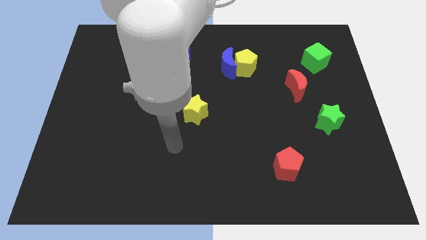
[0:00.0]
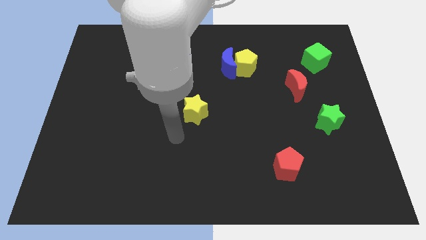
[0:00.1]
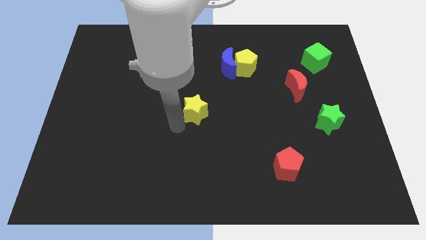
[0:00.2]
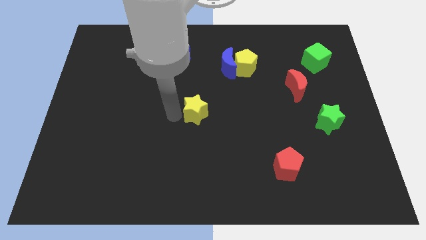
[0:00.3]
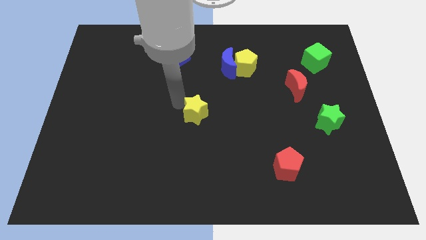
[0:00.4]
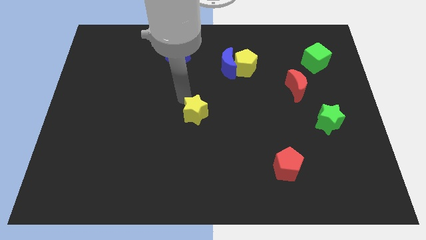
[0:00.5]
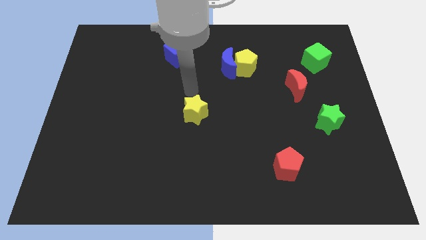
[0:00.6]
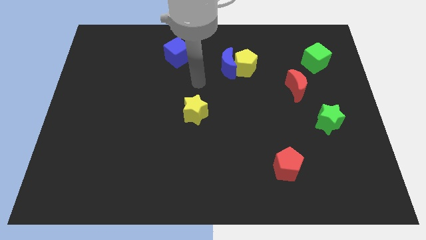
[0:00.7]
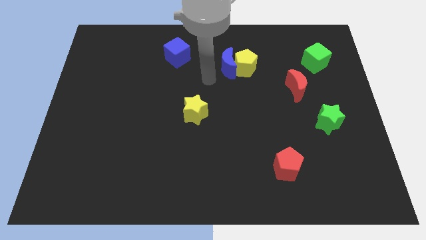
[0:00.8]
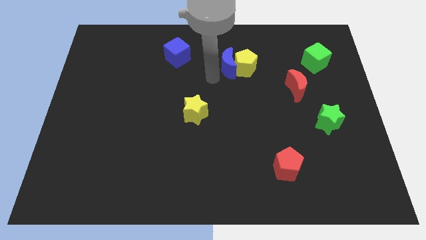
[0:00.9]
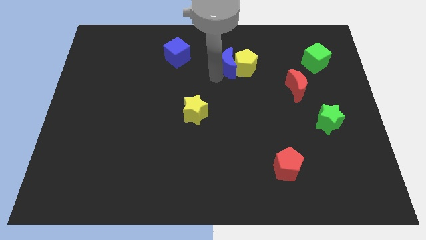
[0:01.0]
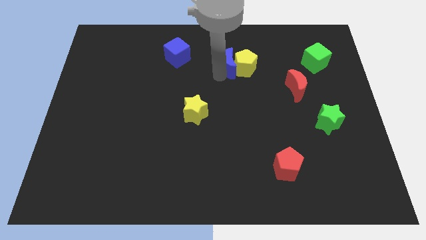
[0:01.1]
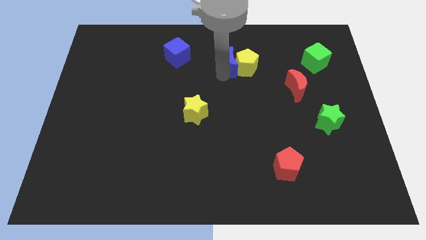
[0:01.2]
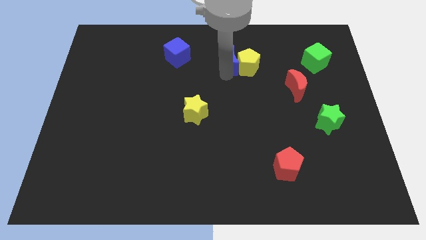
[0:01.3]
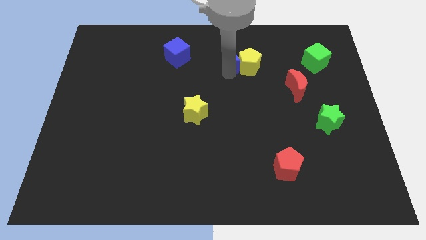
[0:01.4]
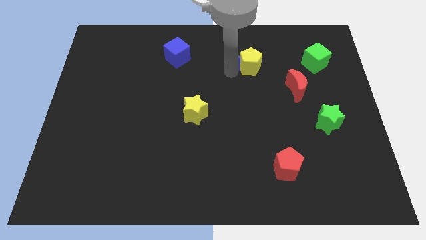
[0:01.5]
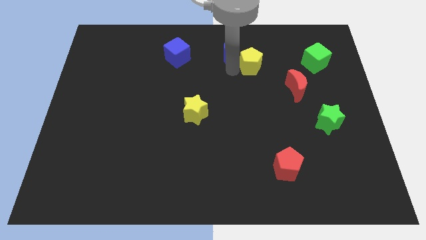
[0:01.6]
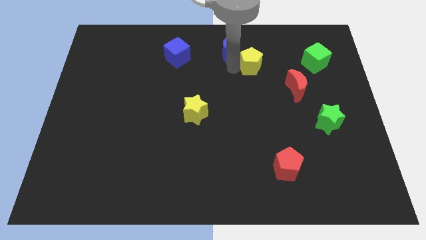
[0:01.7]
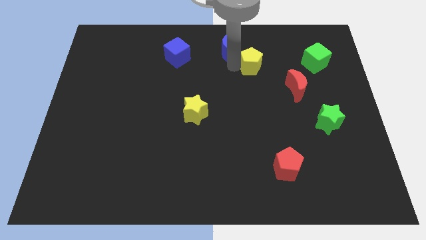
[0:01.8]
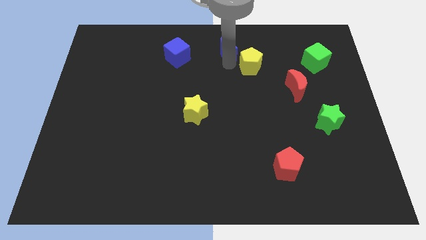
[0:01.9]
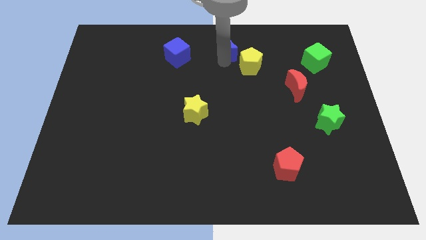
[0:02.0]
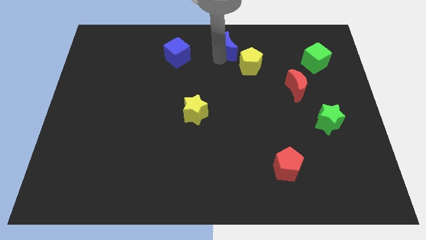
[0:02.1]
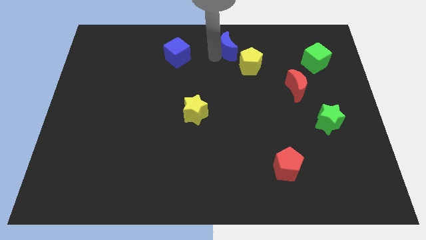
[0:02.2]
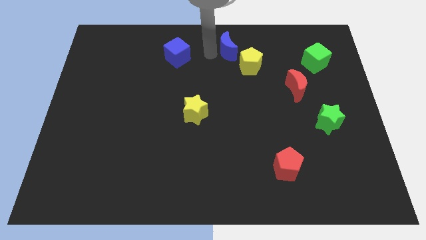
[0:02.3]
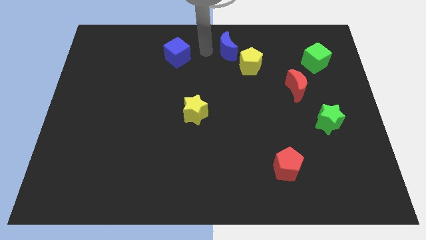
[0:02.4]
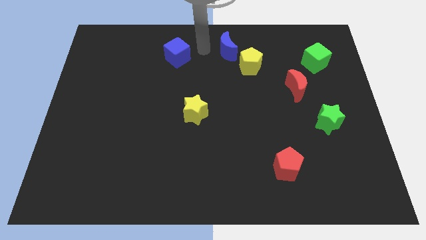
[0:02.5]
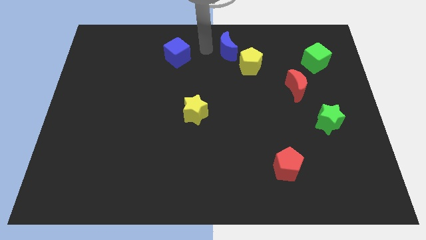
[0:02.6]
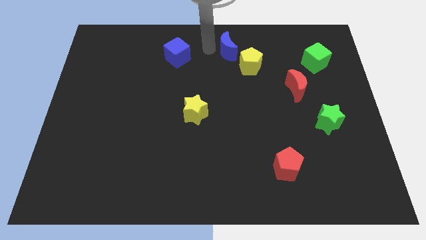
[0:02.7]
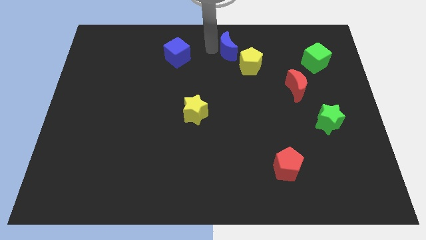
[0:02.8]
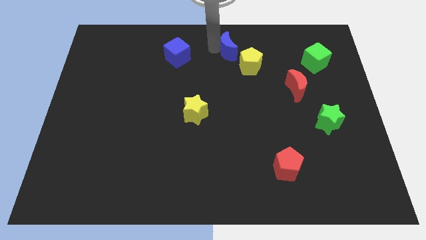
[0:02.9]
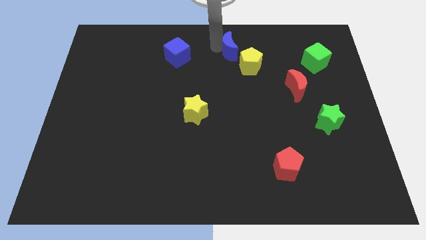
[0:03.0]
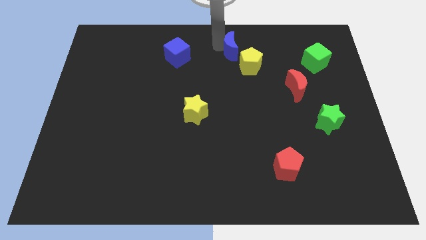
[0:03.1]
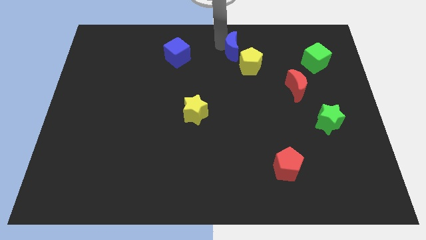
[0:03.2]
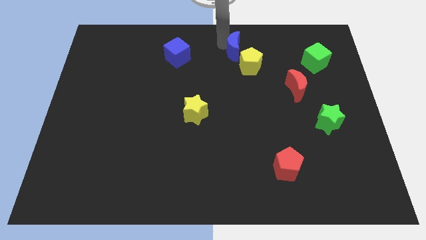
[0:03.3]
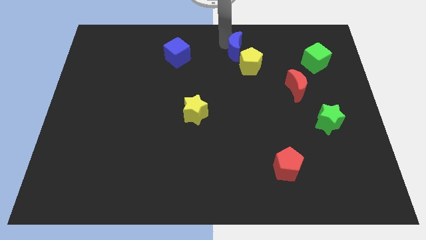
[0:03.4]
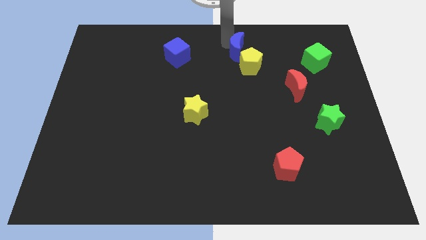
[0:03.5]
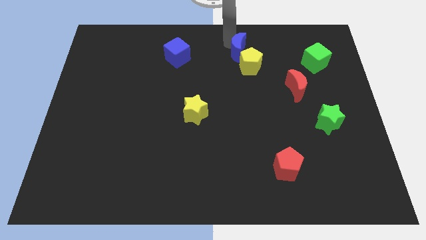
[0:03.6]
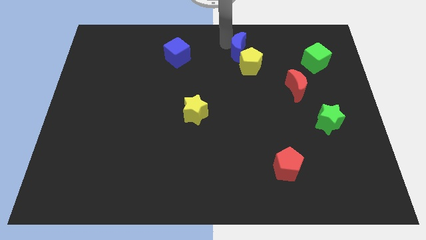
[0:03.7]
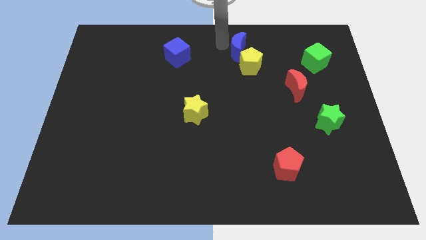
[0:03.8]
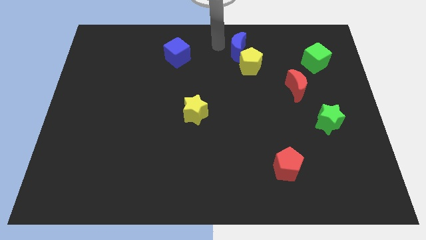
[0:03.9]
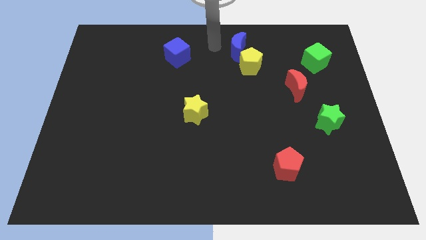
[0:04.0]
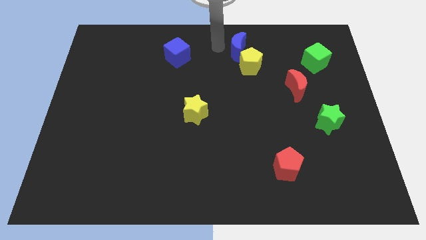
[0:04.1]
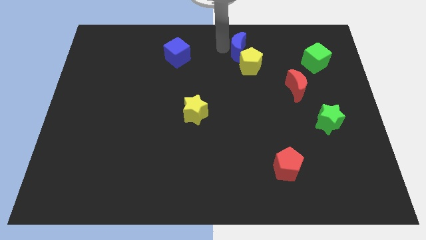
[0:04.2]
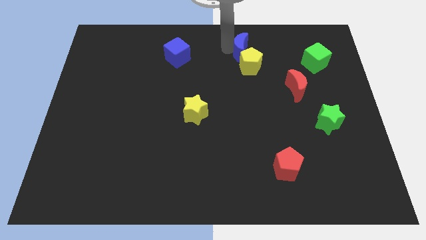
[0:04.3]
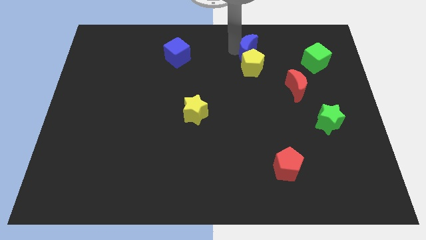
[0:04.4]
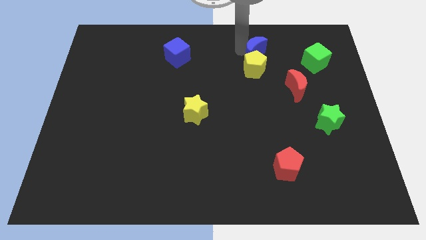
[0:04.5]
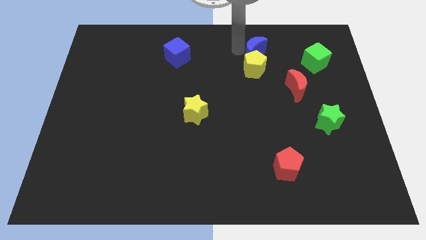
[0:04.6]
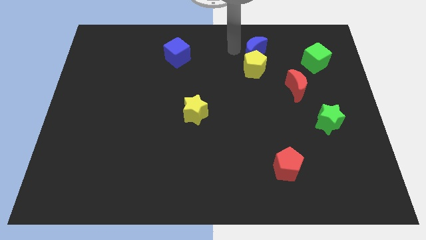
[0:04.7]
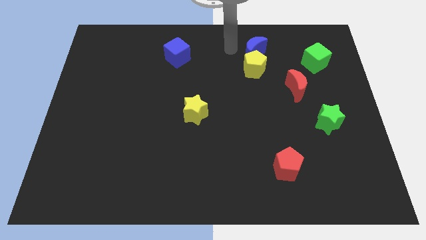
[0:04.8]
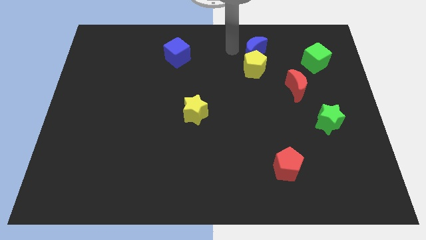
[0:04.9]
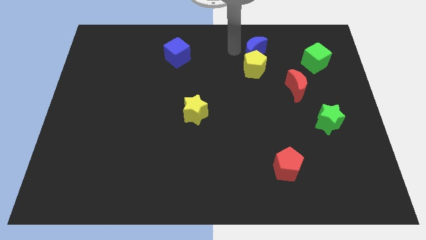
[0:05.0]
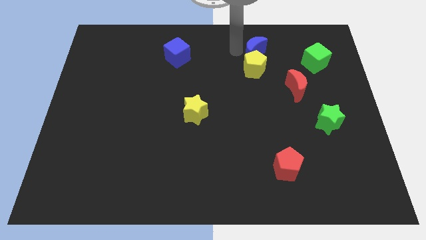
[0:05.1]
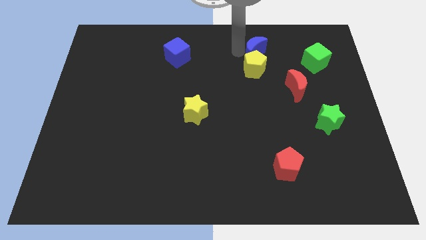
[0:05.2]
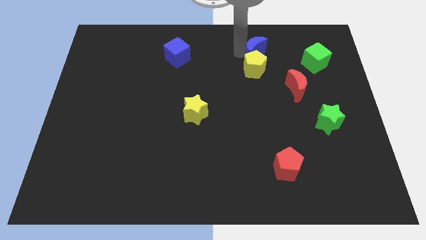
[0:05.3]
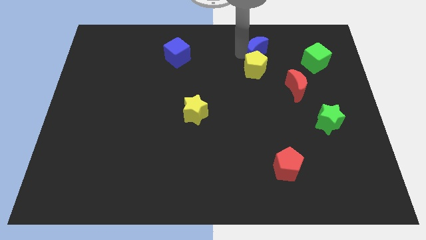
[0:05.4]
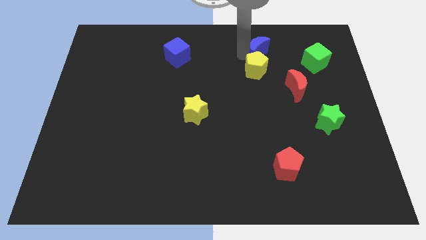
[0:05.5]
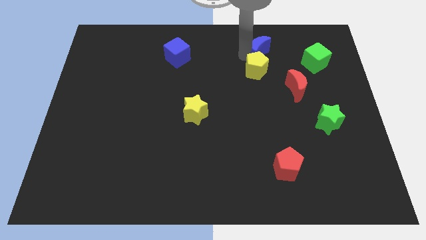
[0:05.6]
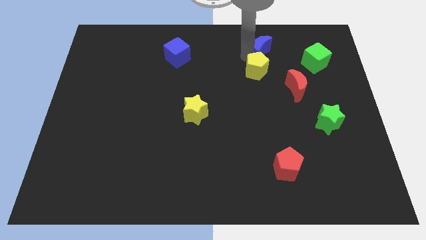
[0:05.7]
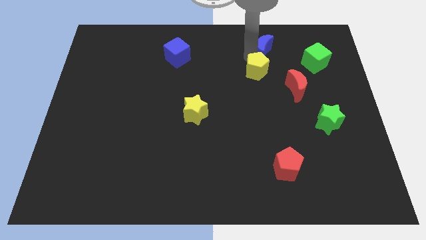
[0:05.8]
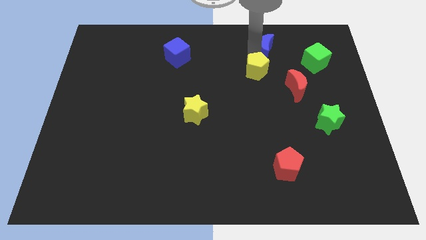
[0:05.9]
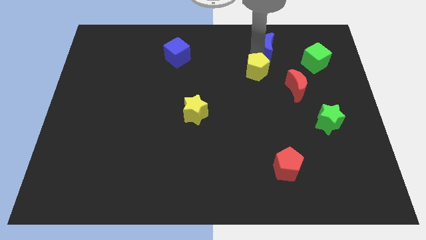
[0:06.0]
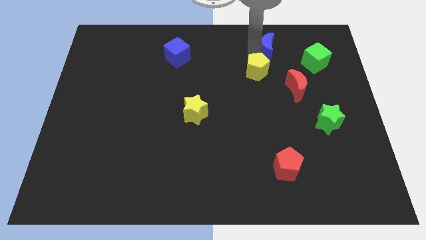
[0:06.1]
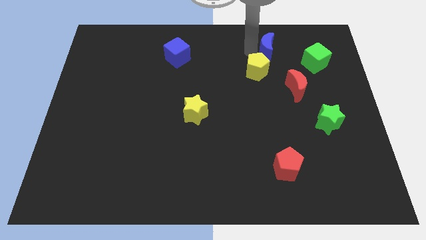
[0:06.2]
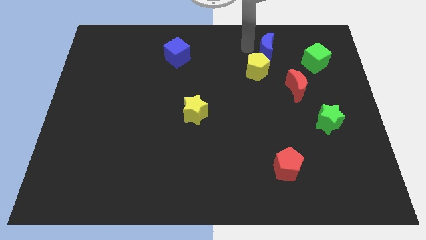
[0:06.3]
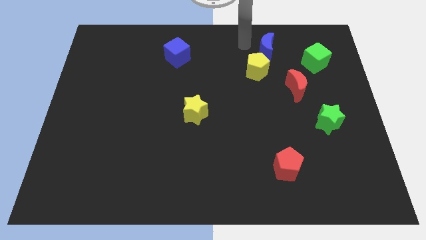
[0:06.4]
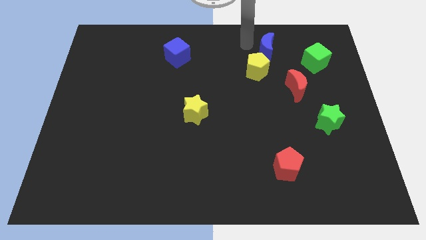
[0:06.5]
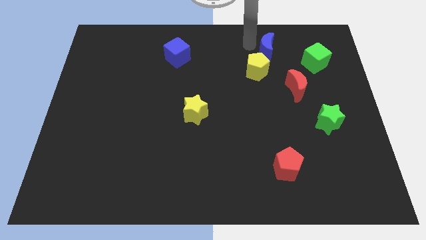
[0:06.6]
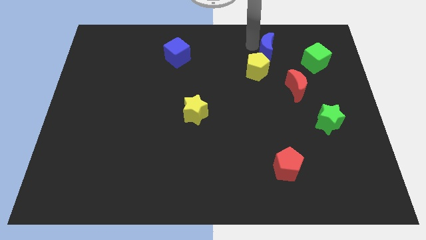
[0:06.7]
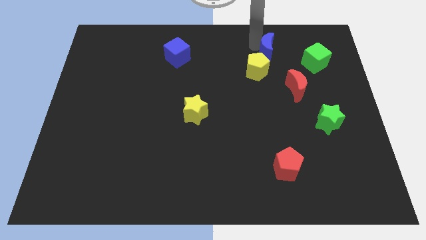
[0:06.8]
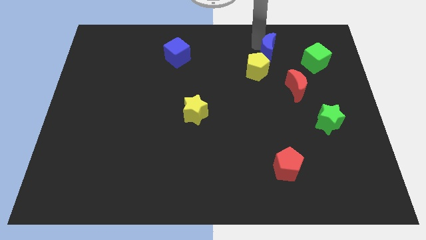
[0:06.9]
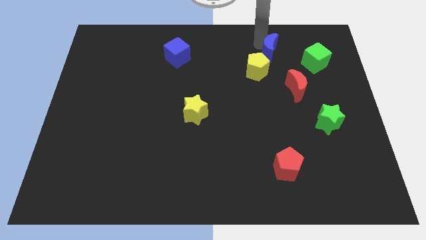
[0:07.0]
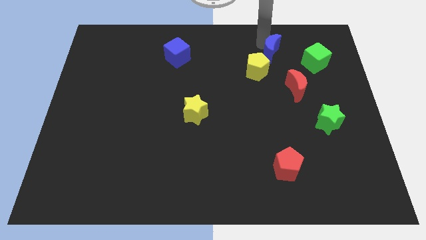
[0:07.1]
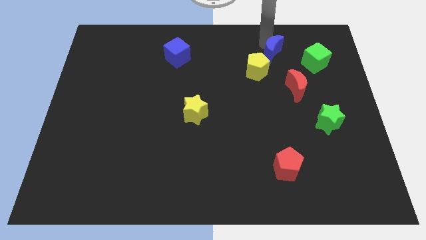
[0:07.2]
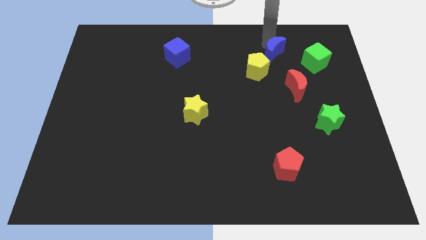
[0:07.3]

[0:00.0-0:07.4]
slide the blue moon to the top of the red moon

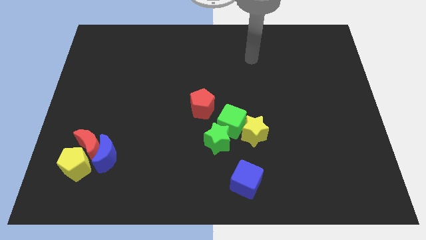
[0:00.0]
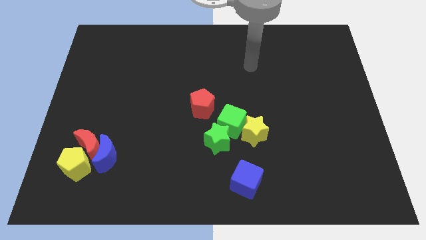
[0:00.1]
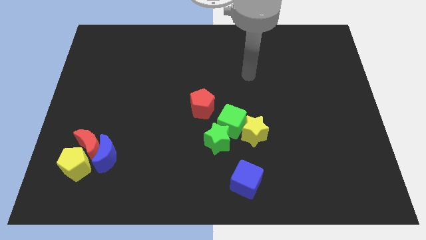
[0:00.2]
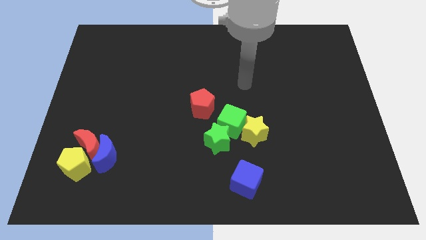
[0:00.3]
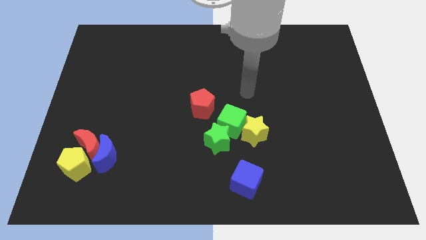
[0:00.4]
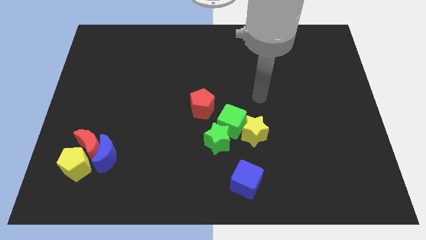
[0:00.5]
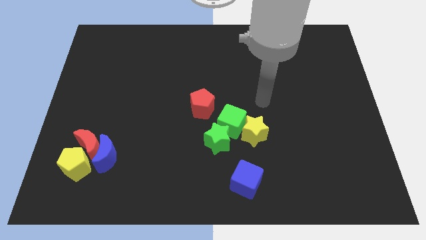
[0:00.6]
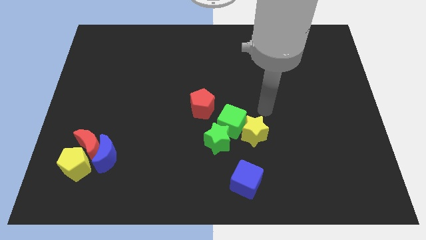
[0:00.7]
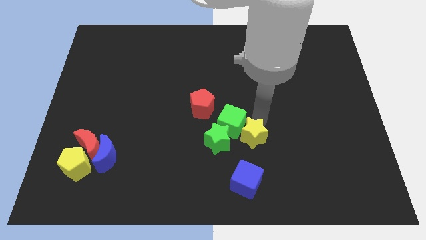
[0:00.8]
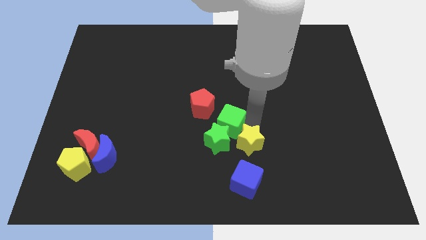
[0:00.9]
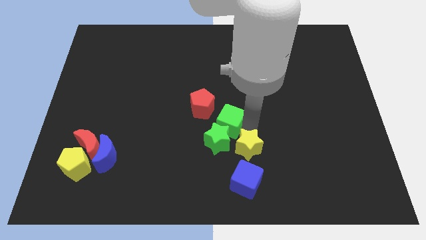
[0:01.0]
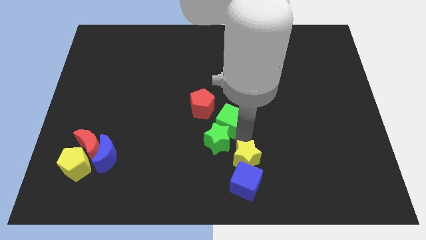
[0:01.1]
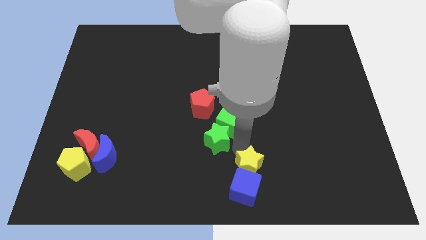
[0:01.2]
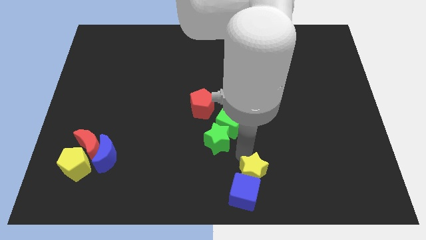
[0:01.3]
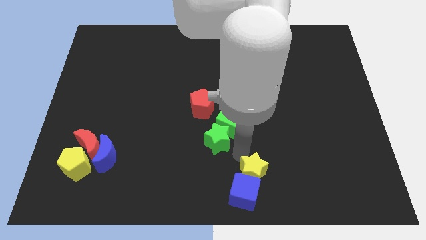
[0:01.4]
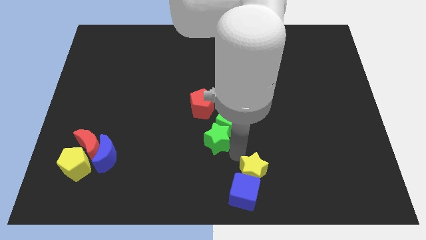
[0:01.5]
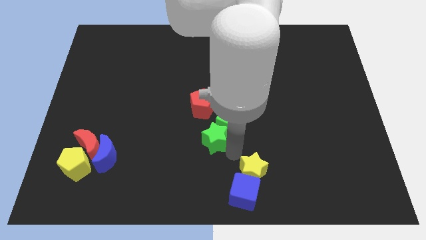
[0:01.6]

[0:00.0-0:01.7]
move the green star to the left of the green cube
